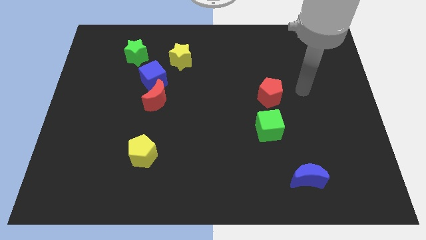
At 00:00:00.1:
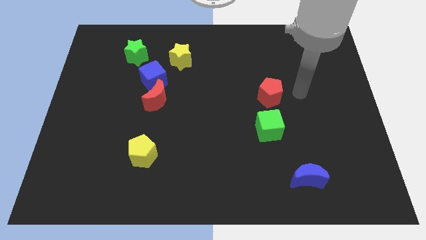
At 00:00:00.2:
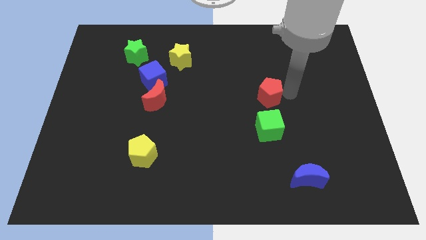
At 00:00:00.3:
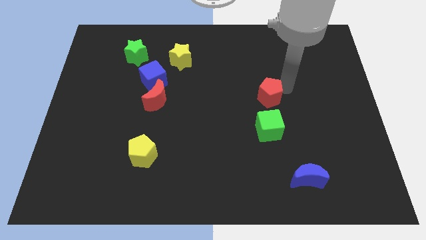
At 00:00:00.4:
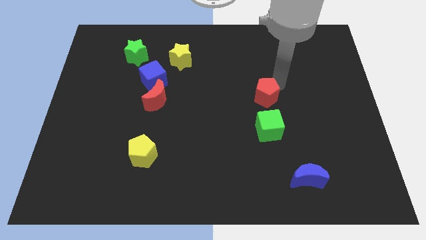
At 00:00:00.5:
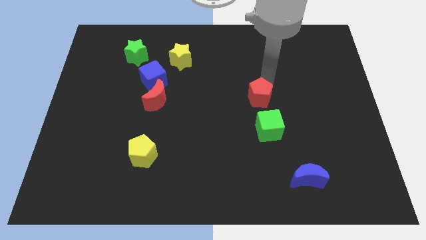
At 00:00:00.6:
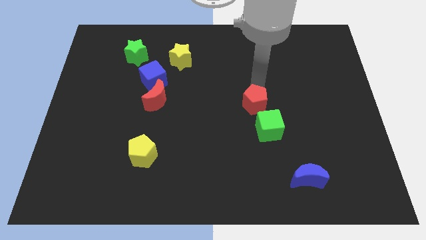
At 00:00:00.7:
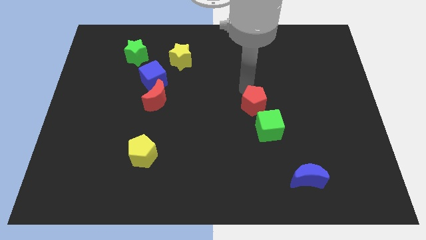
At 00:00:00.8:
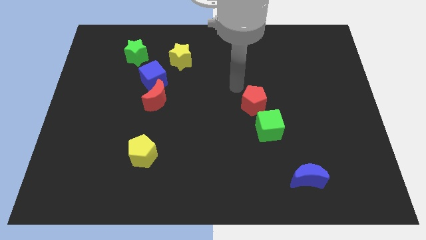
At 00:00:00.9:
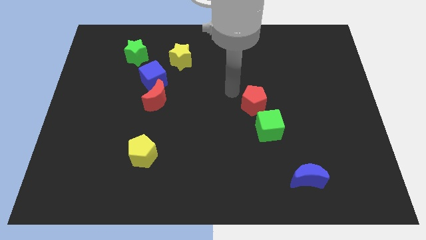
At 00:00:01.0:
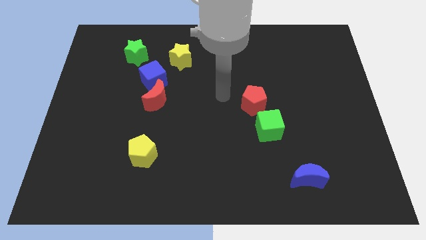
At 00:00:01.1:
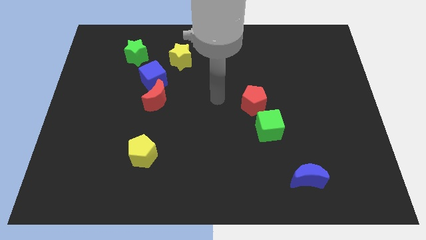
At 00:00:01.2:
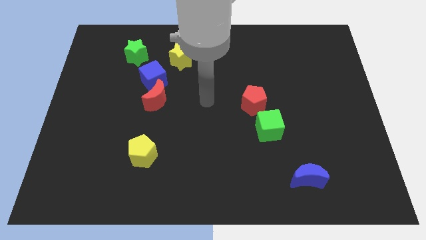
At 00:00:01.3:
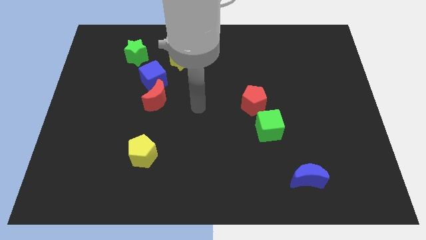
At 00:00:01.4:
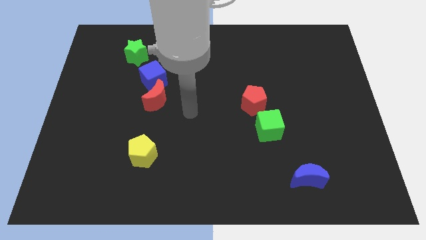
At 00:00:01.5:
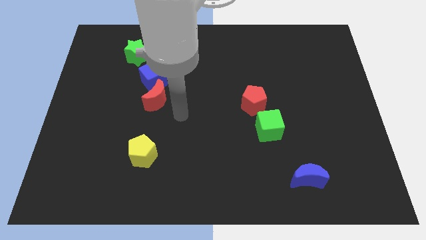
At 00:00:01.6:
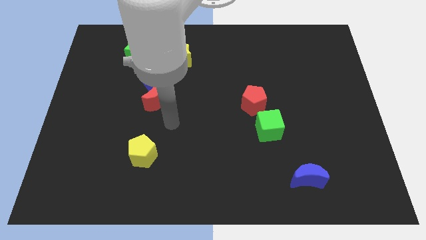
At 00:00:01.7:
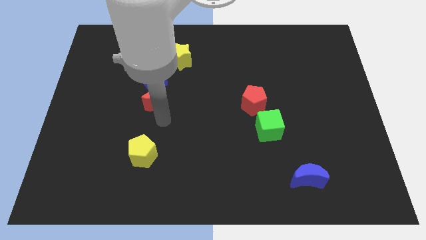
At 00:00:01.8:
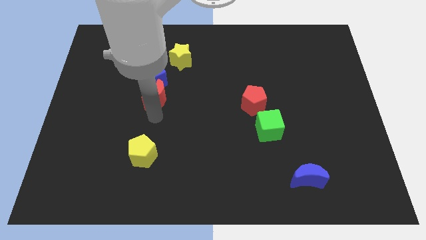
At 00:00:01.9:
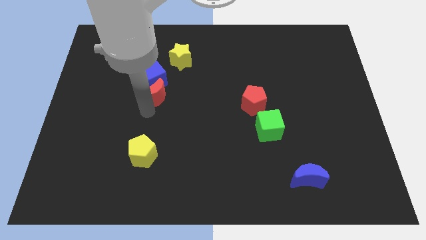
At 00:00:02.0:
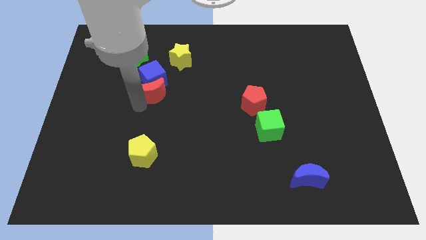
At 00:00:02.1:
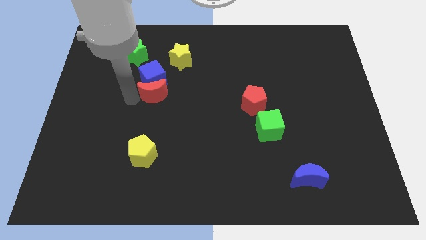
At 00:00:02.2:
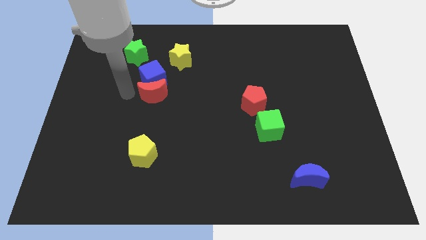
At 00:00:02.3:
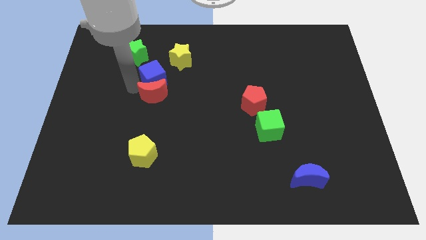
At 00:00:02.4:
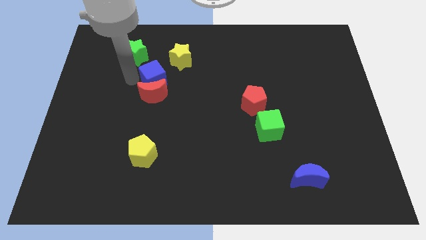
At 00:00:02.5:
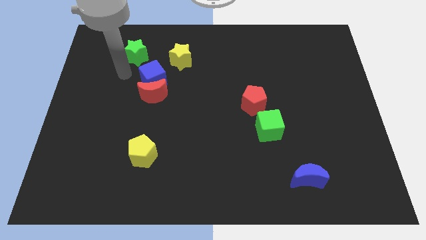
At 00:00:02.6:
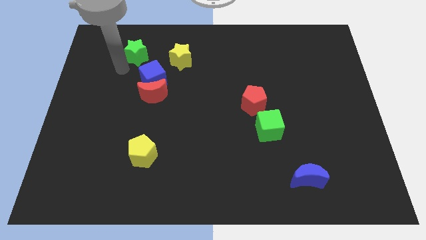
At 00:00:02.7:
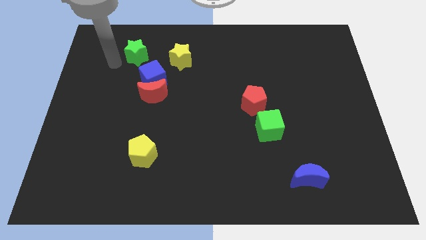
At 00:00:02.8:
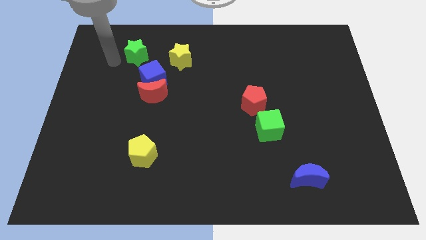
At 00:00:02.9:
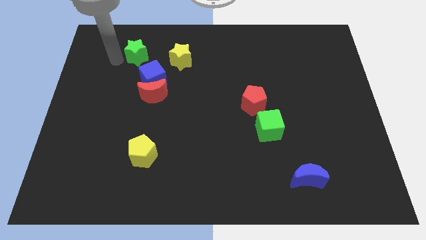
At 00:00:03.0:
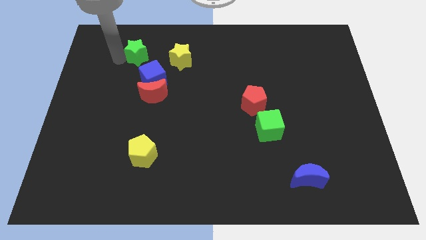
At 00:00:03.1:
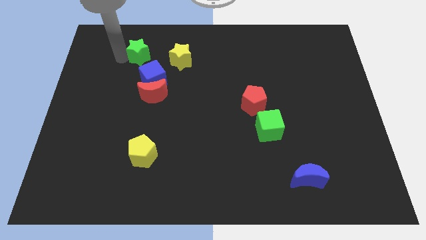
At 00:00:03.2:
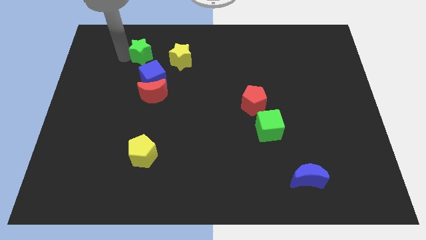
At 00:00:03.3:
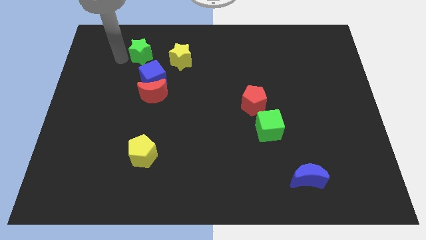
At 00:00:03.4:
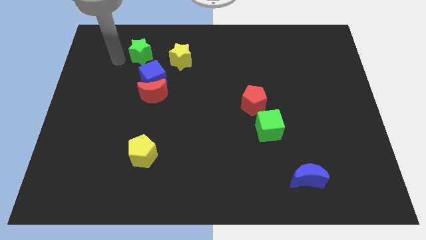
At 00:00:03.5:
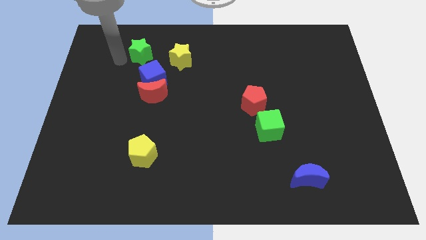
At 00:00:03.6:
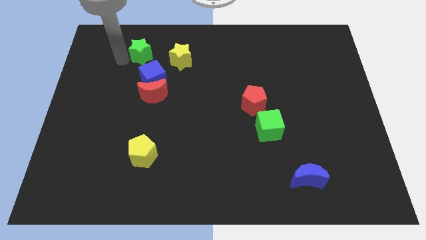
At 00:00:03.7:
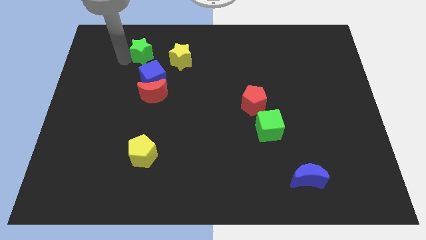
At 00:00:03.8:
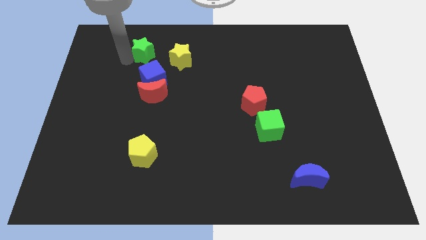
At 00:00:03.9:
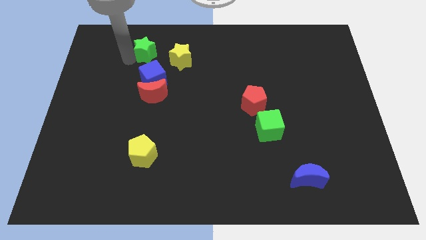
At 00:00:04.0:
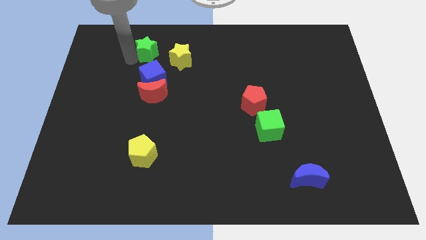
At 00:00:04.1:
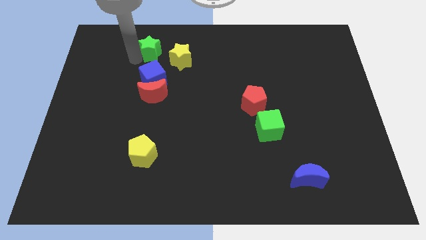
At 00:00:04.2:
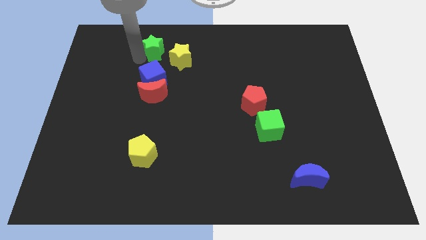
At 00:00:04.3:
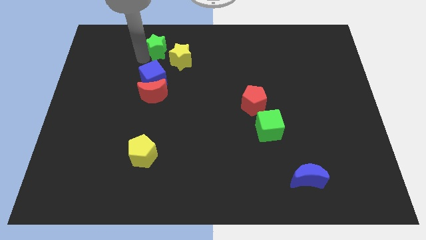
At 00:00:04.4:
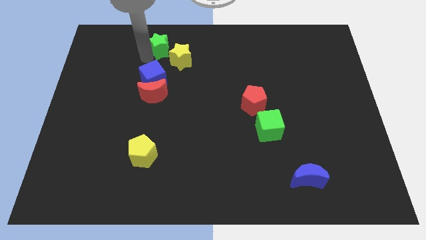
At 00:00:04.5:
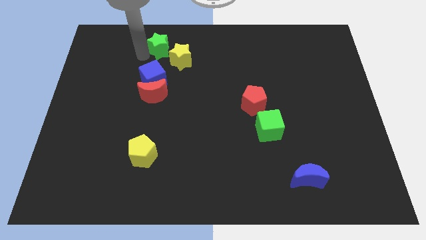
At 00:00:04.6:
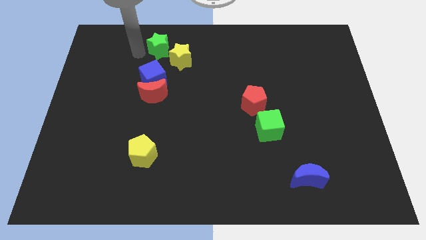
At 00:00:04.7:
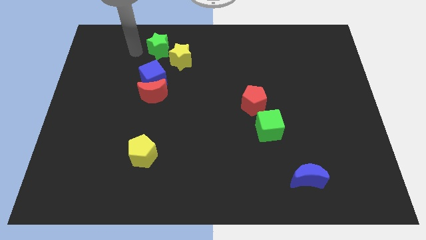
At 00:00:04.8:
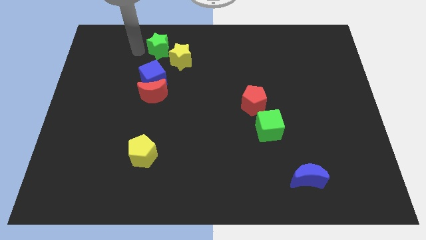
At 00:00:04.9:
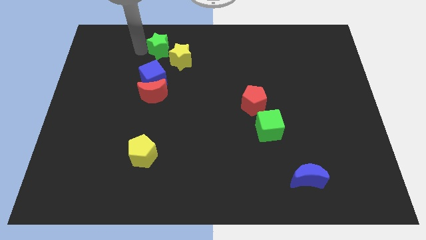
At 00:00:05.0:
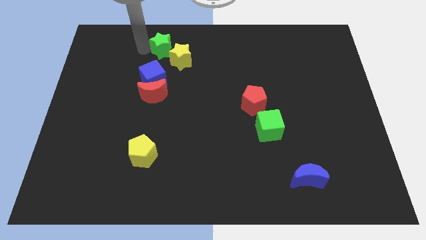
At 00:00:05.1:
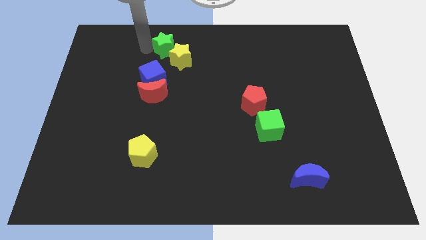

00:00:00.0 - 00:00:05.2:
slightly move the green star right

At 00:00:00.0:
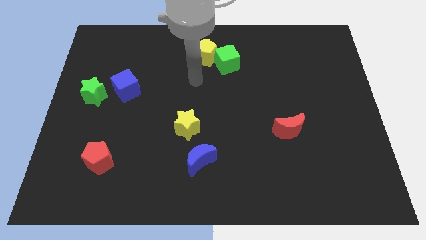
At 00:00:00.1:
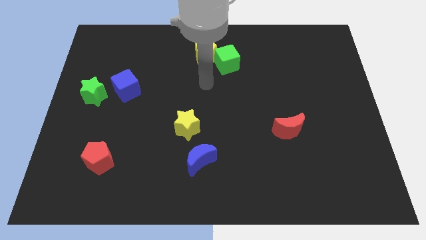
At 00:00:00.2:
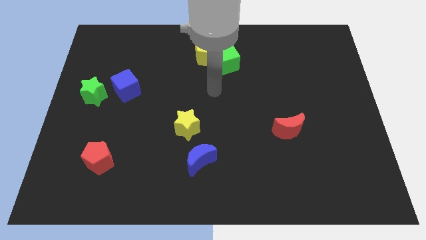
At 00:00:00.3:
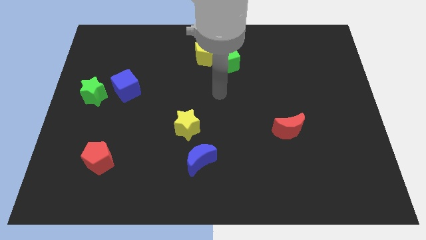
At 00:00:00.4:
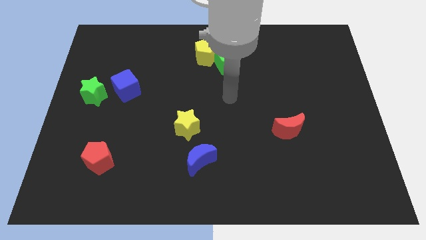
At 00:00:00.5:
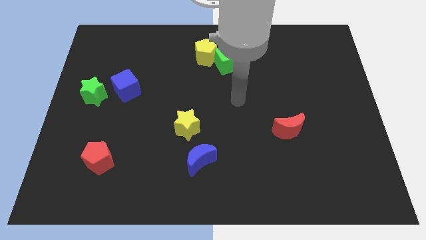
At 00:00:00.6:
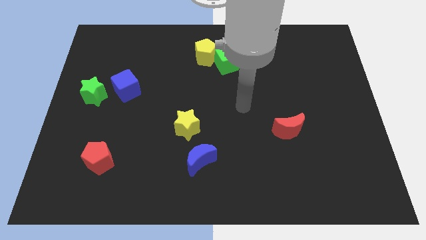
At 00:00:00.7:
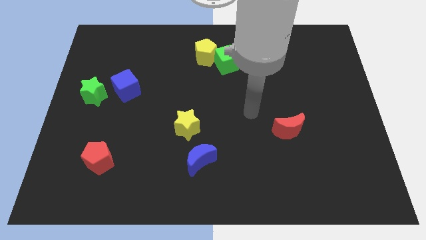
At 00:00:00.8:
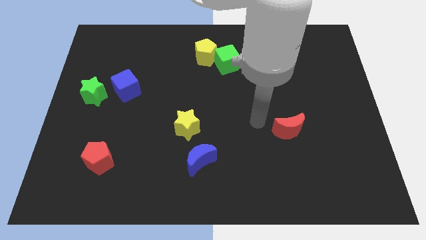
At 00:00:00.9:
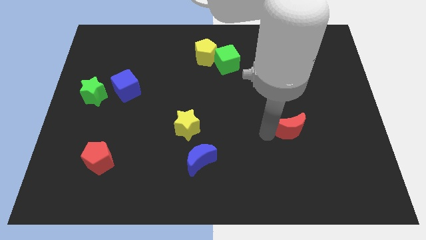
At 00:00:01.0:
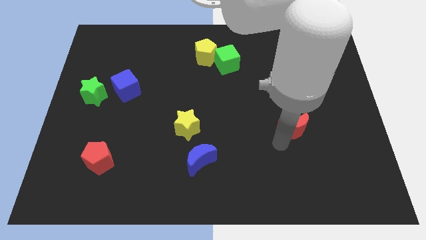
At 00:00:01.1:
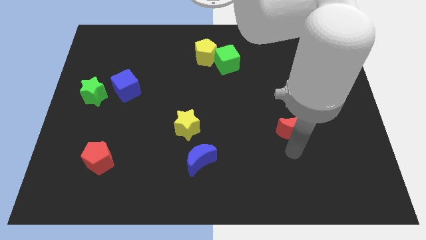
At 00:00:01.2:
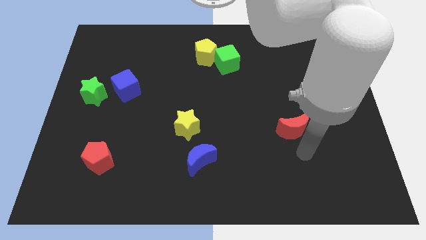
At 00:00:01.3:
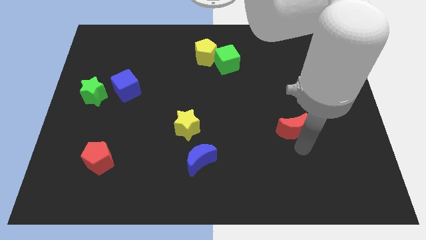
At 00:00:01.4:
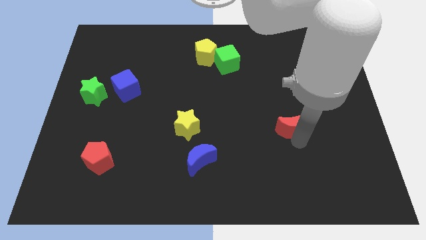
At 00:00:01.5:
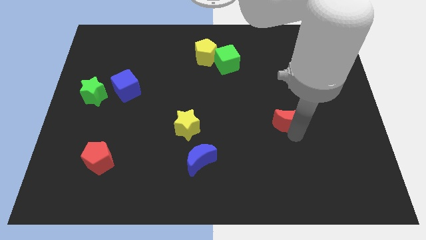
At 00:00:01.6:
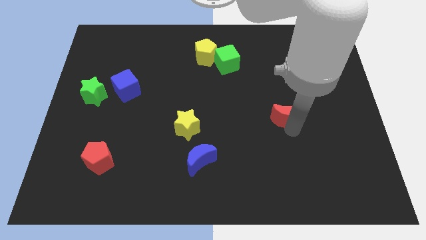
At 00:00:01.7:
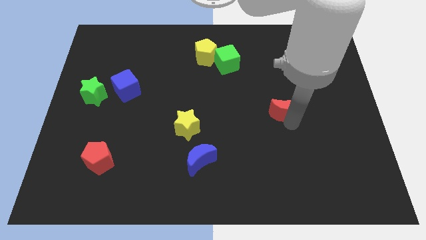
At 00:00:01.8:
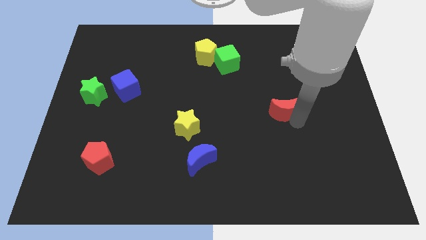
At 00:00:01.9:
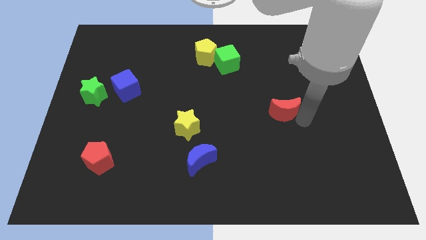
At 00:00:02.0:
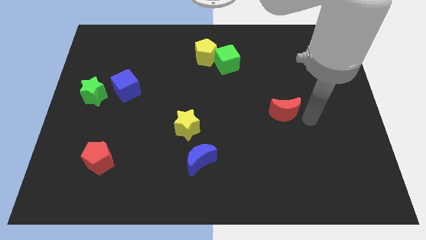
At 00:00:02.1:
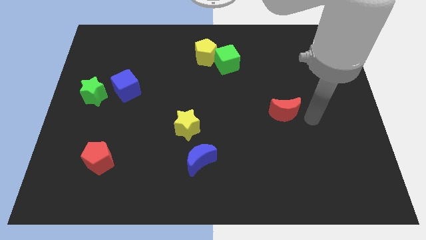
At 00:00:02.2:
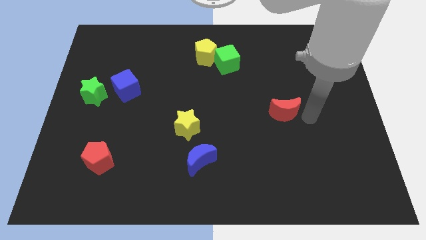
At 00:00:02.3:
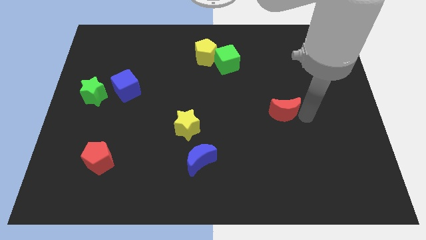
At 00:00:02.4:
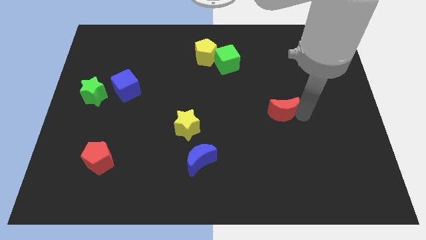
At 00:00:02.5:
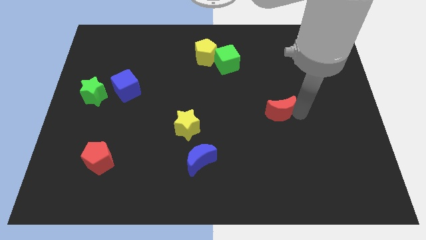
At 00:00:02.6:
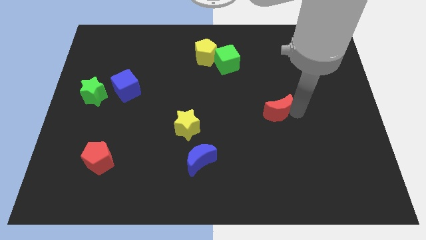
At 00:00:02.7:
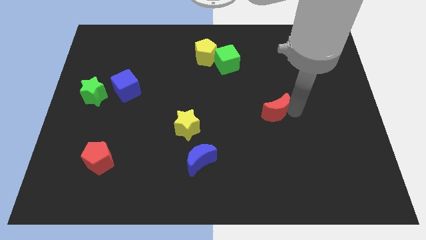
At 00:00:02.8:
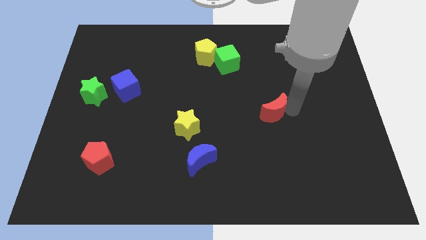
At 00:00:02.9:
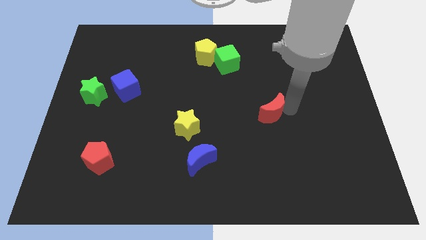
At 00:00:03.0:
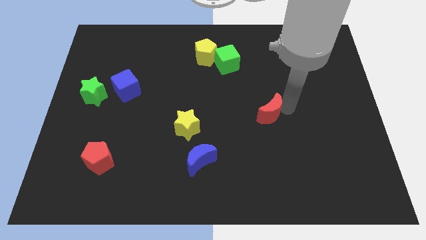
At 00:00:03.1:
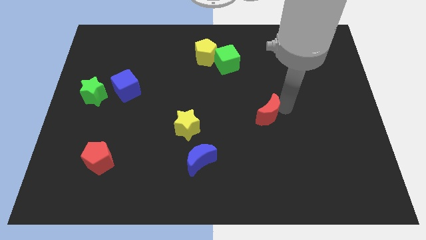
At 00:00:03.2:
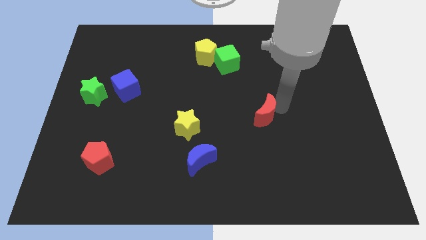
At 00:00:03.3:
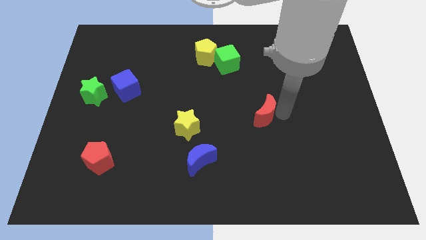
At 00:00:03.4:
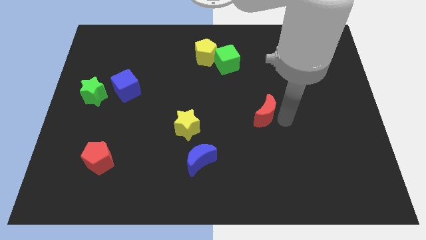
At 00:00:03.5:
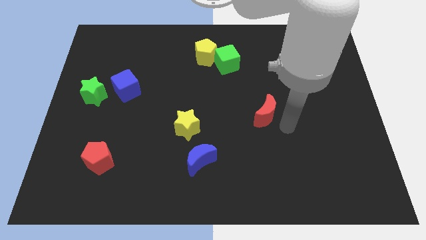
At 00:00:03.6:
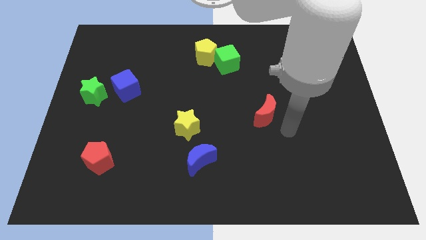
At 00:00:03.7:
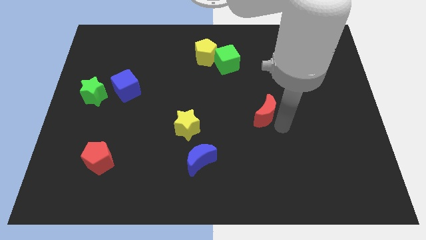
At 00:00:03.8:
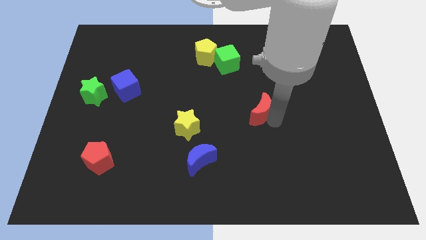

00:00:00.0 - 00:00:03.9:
slightly push the red moon upwards and to the left diagonally
